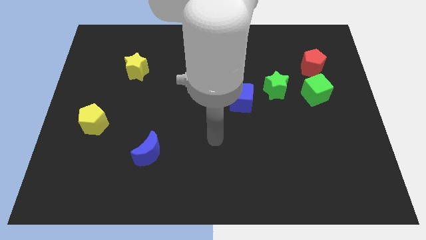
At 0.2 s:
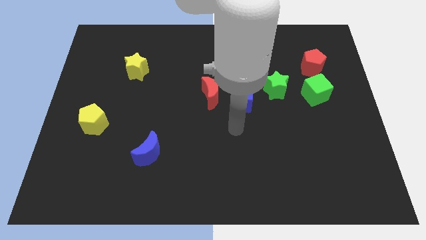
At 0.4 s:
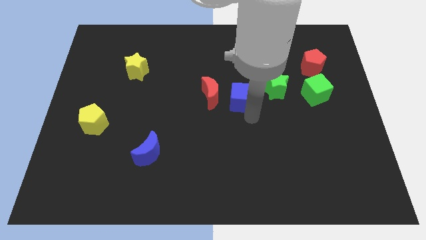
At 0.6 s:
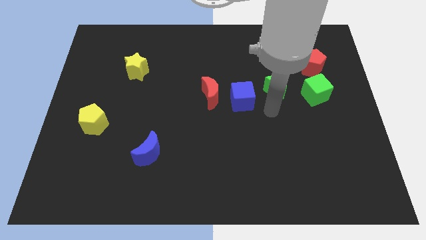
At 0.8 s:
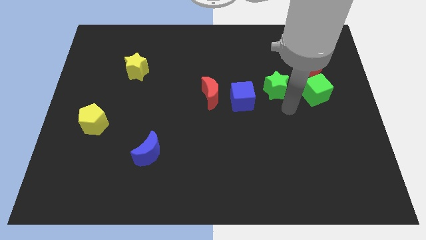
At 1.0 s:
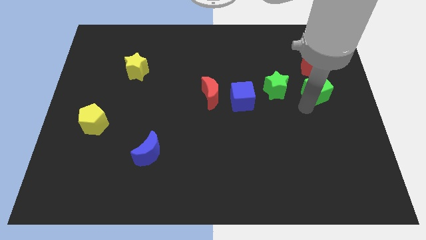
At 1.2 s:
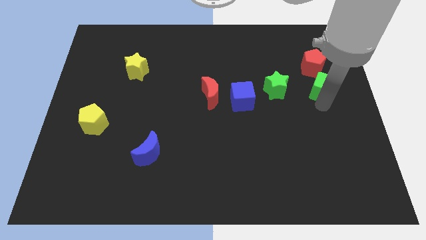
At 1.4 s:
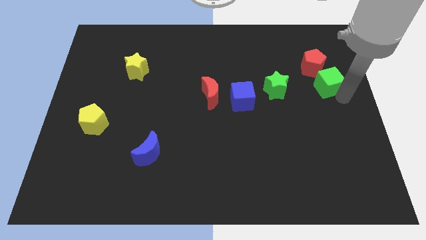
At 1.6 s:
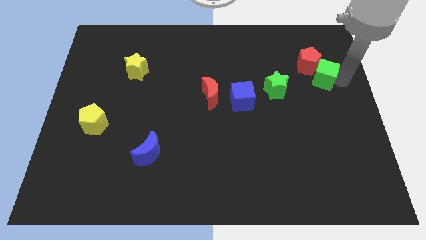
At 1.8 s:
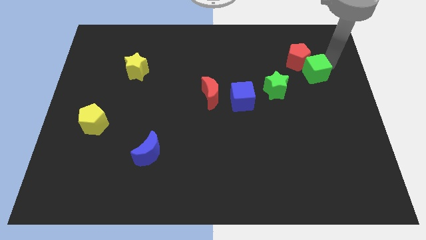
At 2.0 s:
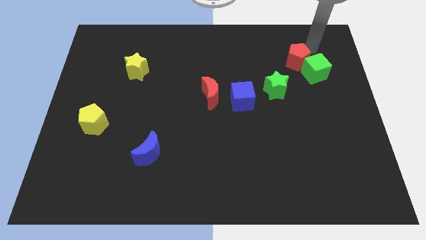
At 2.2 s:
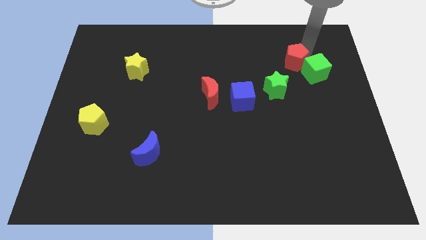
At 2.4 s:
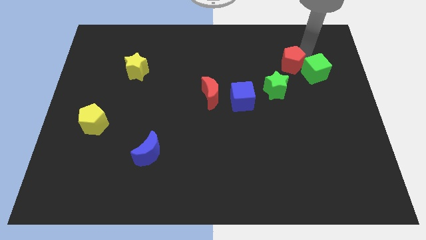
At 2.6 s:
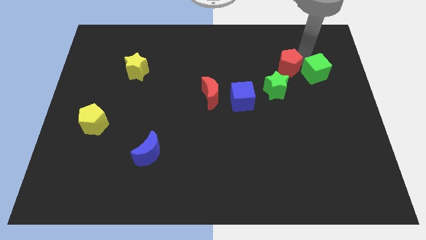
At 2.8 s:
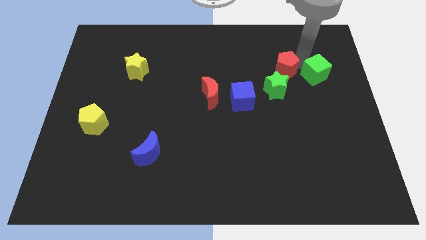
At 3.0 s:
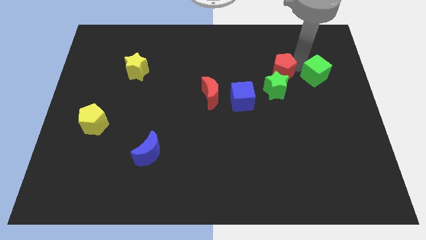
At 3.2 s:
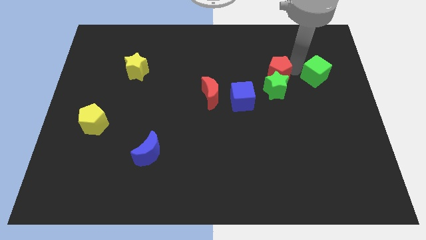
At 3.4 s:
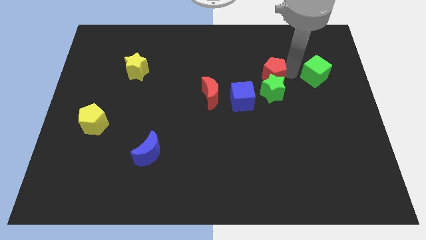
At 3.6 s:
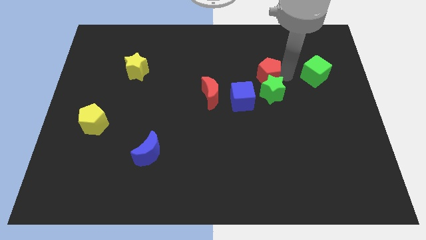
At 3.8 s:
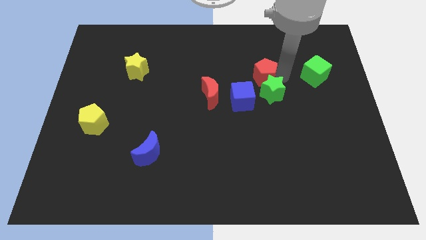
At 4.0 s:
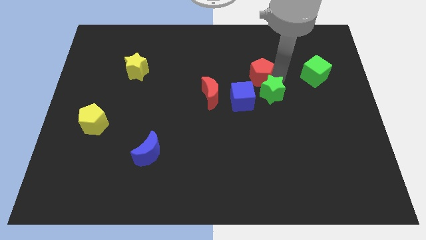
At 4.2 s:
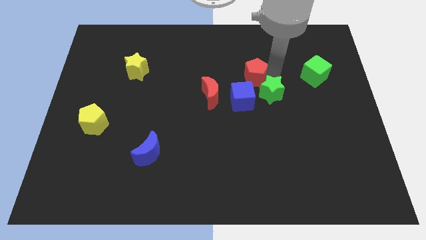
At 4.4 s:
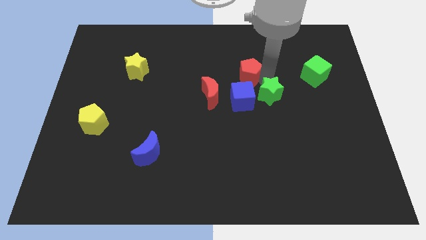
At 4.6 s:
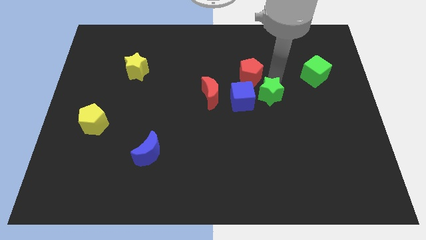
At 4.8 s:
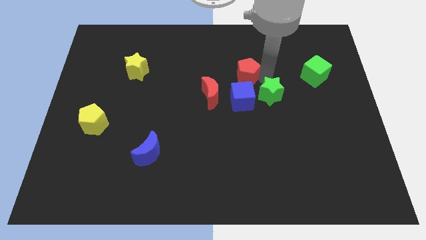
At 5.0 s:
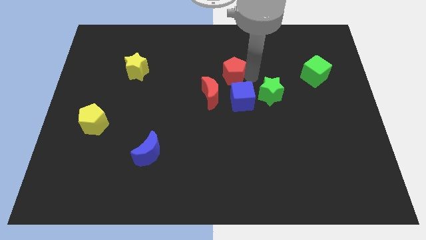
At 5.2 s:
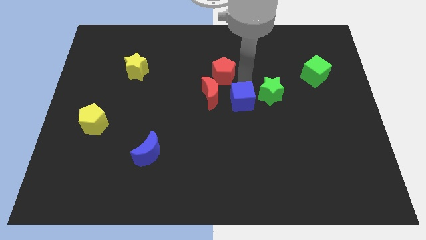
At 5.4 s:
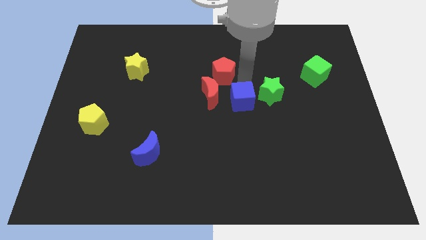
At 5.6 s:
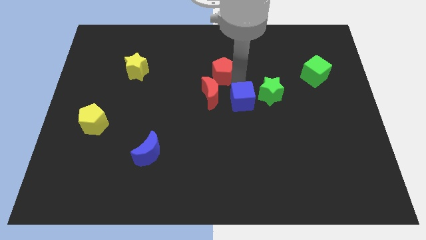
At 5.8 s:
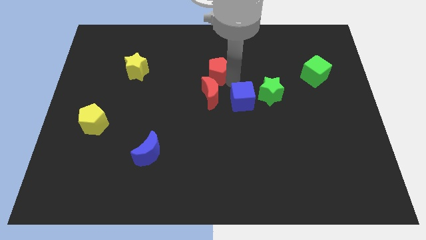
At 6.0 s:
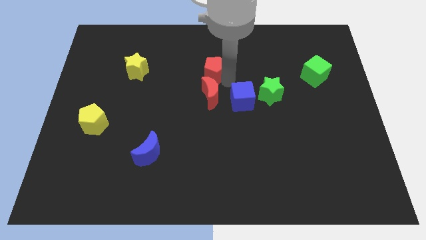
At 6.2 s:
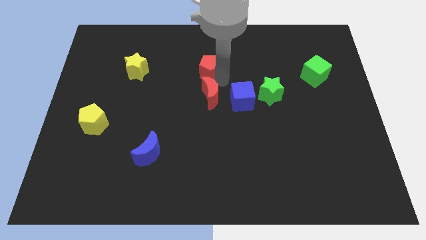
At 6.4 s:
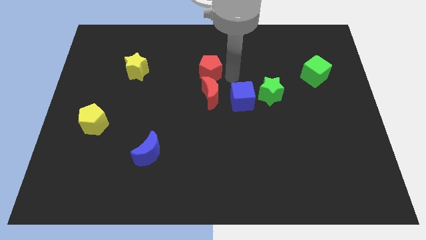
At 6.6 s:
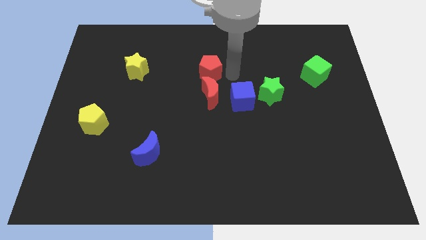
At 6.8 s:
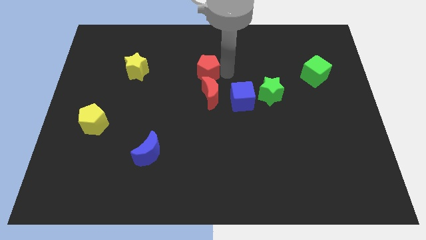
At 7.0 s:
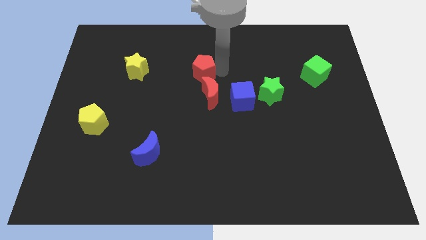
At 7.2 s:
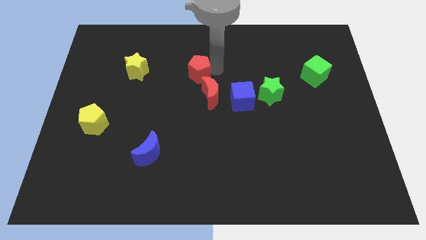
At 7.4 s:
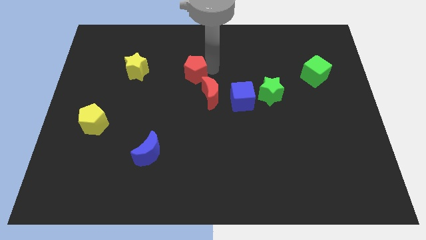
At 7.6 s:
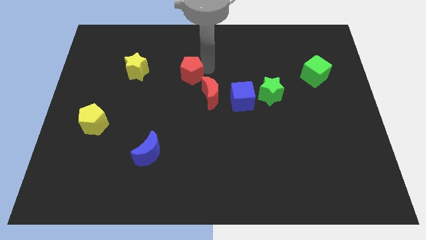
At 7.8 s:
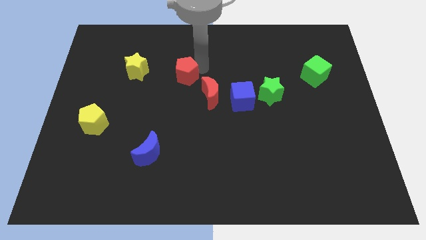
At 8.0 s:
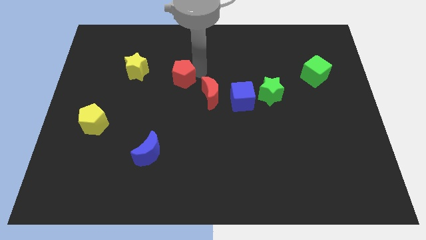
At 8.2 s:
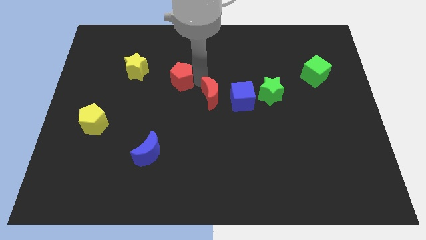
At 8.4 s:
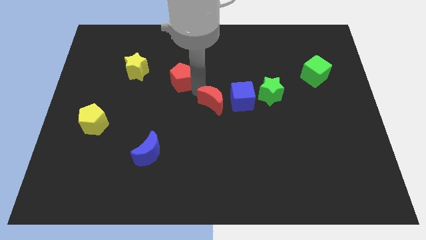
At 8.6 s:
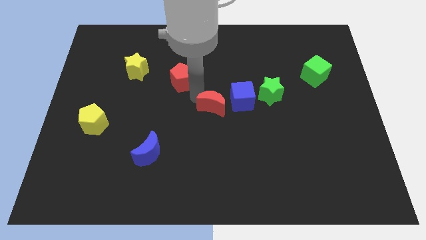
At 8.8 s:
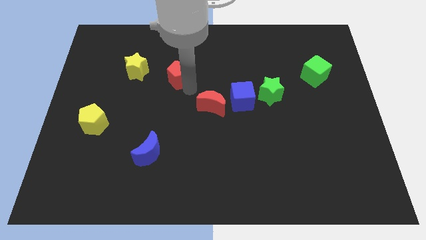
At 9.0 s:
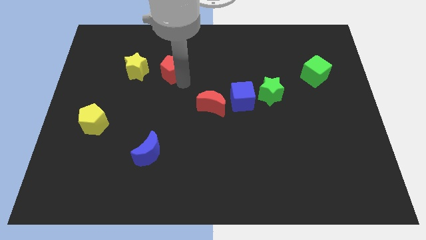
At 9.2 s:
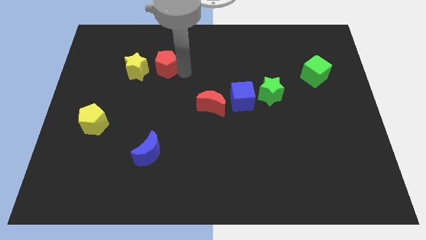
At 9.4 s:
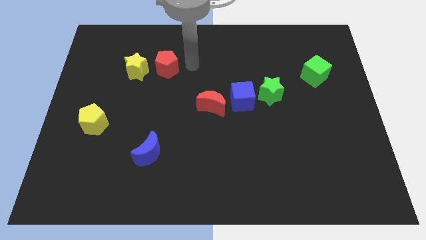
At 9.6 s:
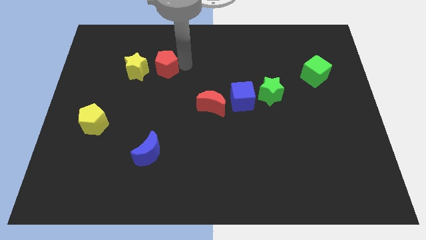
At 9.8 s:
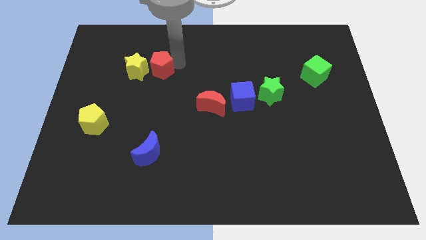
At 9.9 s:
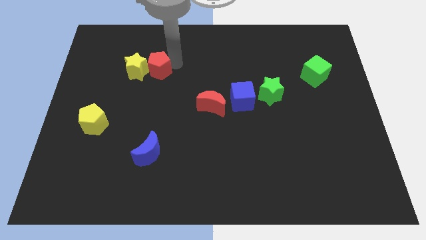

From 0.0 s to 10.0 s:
push the red pentagon next to the yellow star

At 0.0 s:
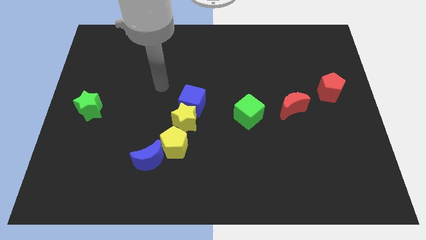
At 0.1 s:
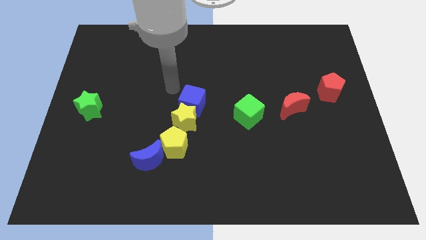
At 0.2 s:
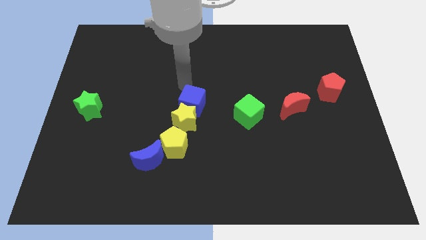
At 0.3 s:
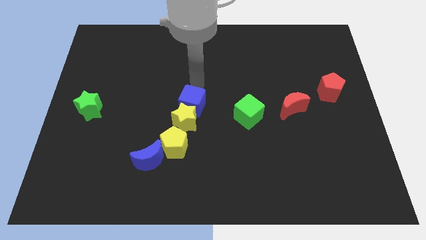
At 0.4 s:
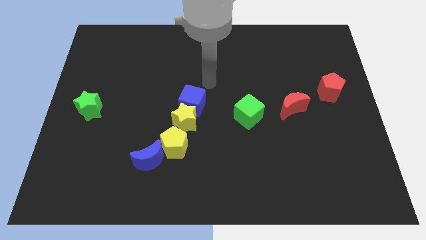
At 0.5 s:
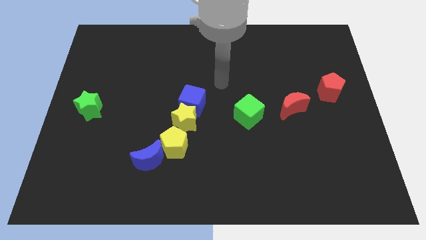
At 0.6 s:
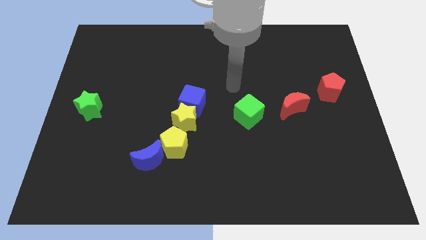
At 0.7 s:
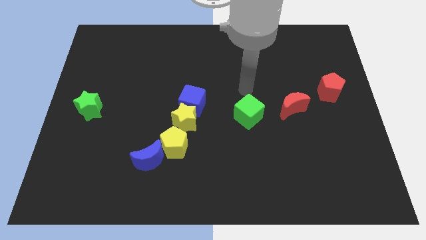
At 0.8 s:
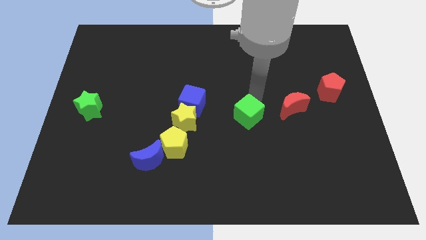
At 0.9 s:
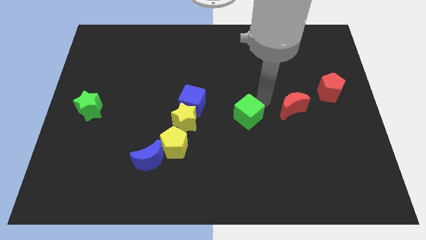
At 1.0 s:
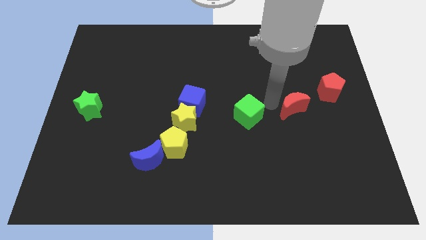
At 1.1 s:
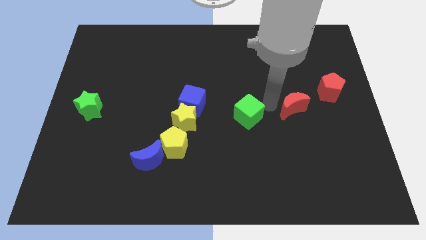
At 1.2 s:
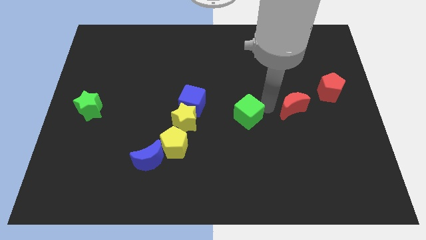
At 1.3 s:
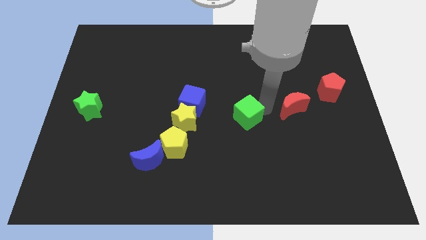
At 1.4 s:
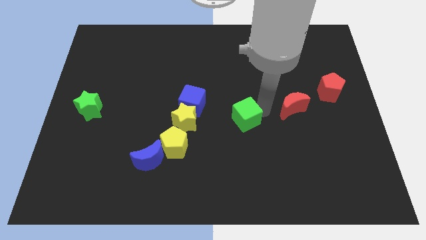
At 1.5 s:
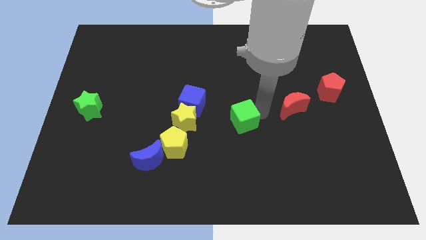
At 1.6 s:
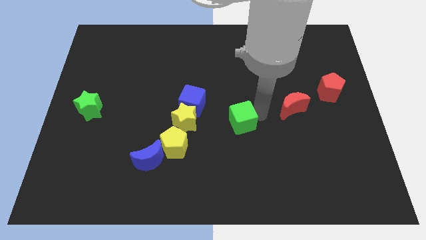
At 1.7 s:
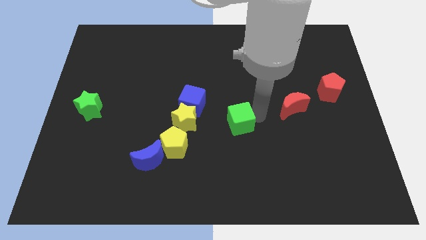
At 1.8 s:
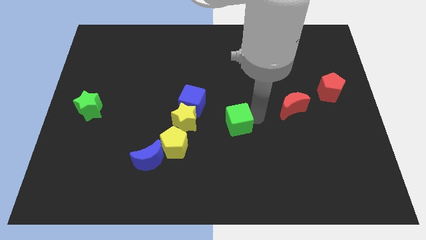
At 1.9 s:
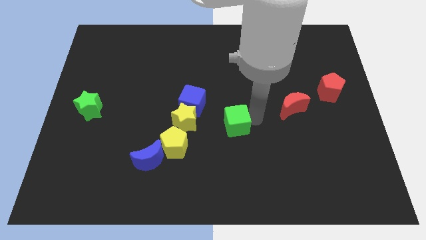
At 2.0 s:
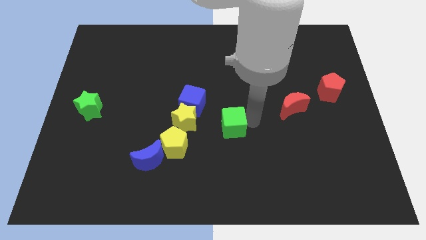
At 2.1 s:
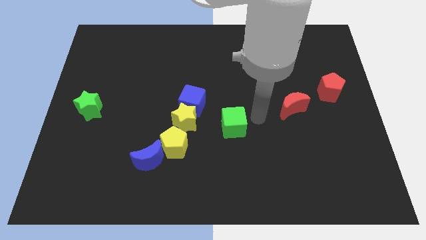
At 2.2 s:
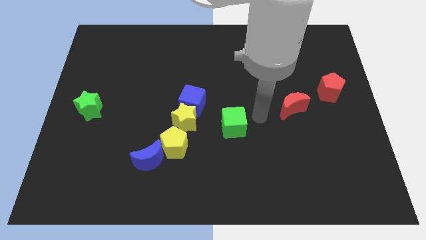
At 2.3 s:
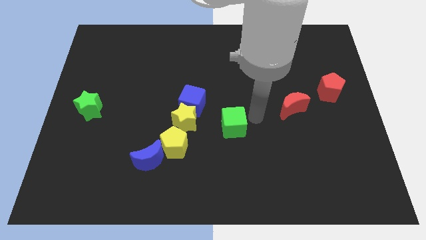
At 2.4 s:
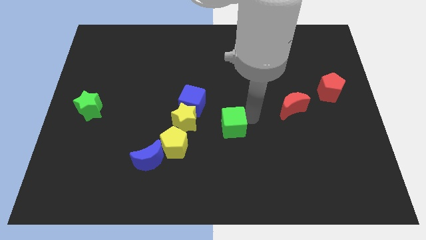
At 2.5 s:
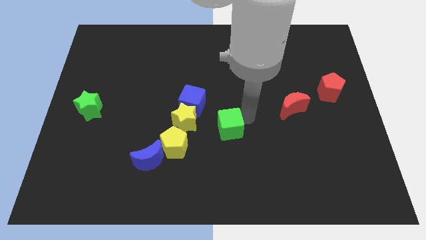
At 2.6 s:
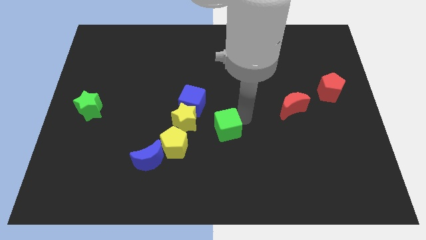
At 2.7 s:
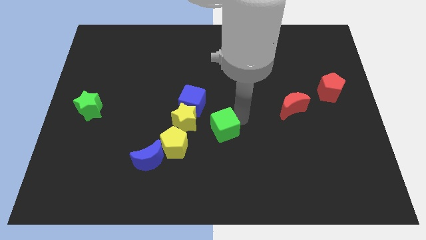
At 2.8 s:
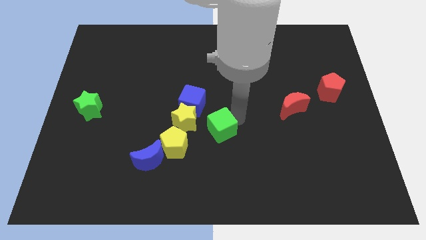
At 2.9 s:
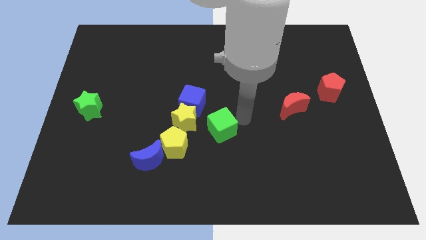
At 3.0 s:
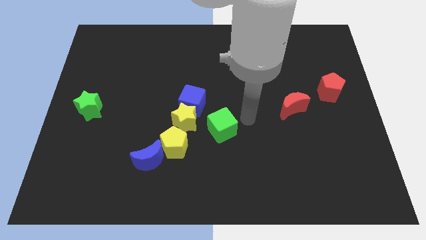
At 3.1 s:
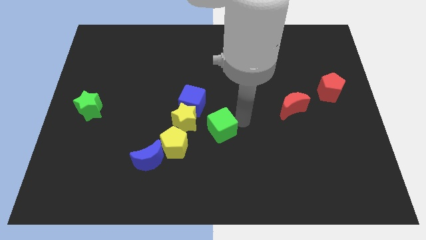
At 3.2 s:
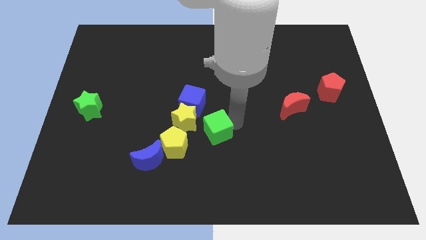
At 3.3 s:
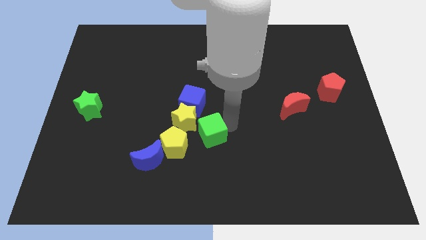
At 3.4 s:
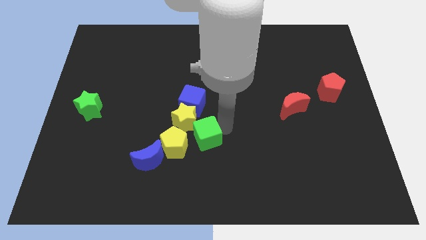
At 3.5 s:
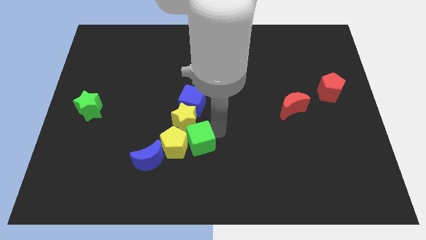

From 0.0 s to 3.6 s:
push the green cube next to the yellow pentagon
